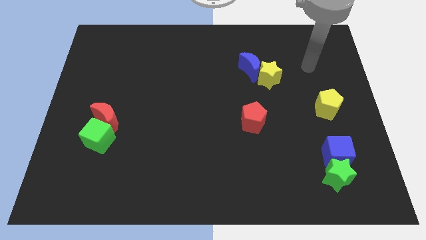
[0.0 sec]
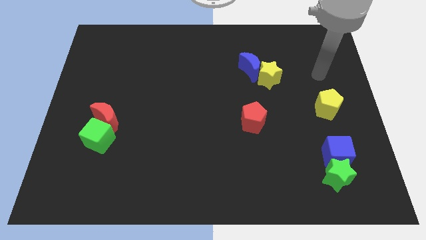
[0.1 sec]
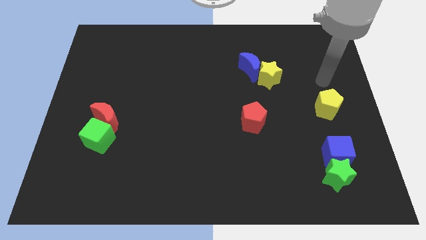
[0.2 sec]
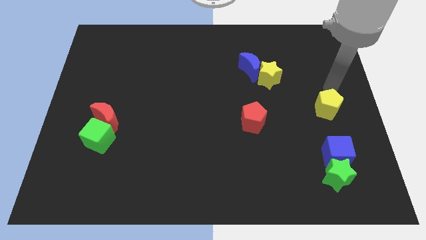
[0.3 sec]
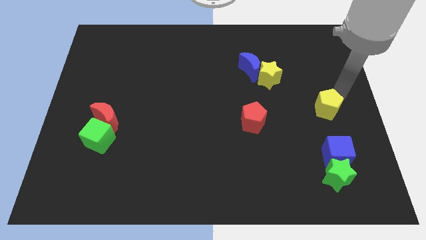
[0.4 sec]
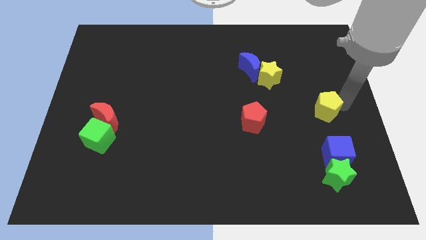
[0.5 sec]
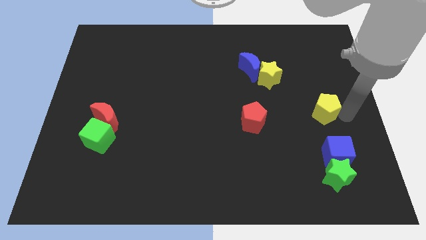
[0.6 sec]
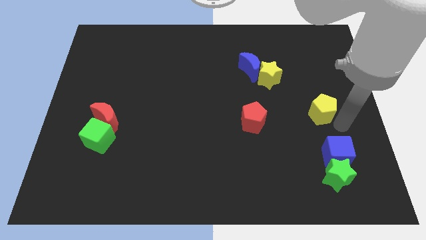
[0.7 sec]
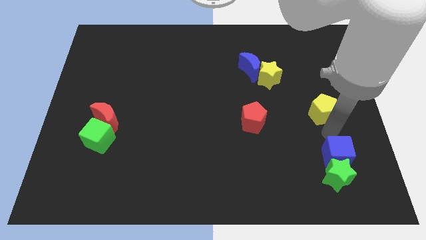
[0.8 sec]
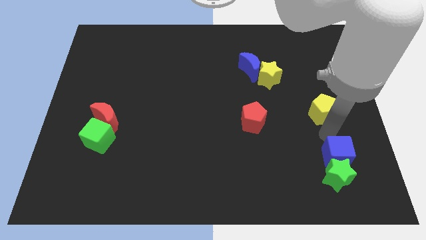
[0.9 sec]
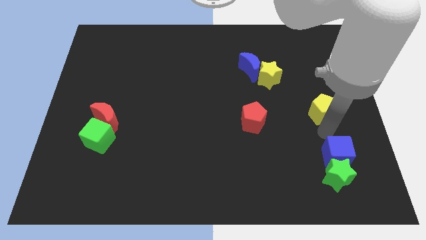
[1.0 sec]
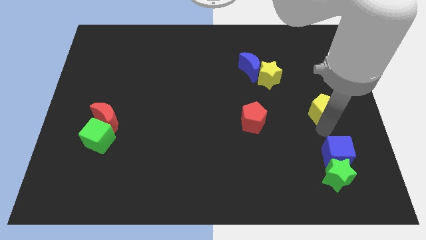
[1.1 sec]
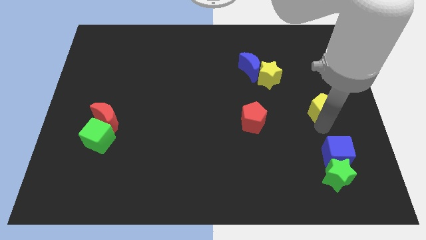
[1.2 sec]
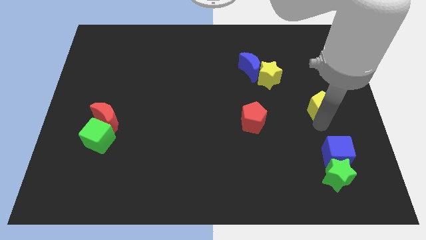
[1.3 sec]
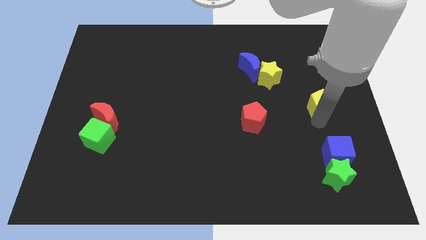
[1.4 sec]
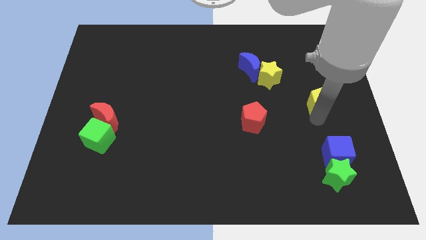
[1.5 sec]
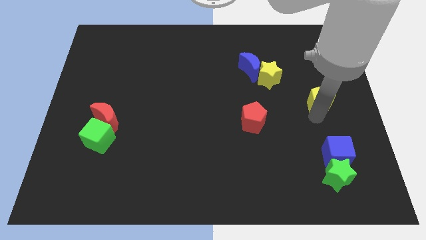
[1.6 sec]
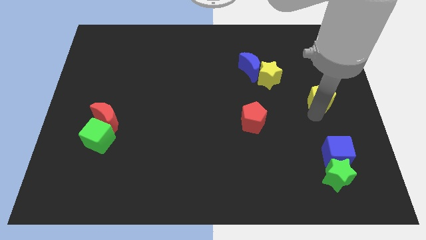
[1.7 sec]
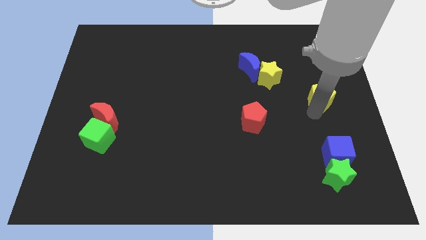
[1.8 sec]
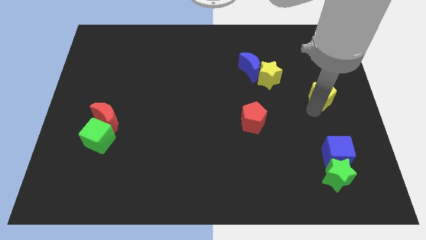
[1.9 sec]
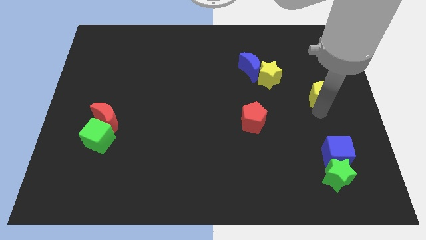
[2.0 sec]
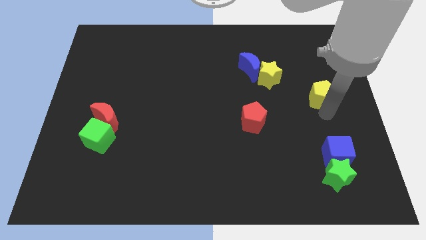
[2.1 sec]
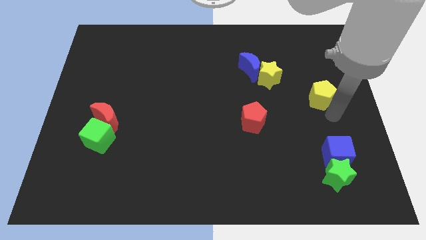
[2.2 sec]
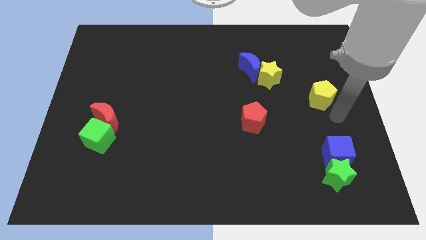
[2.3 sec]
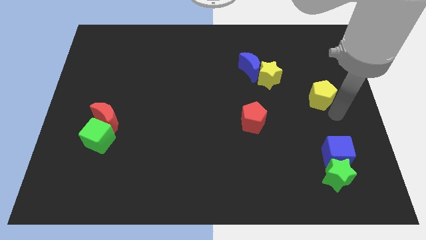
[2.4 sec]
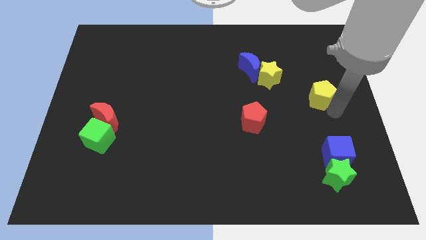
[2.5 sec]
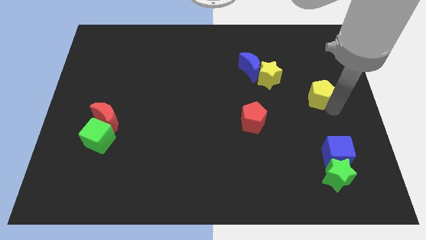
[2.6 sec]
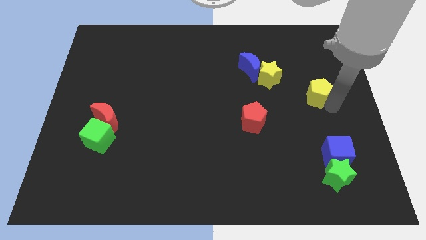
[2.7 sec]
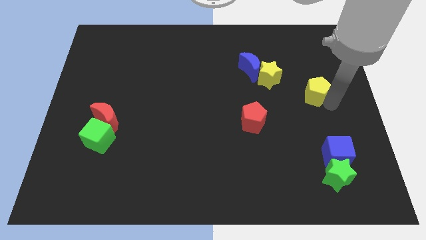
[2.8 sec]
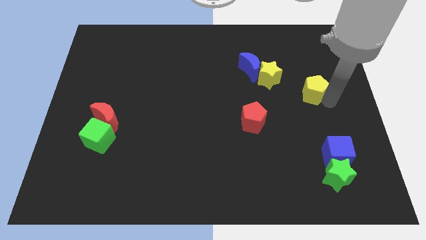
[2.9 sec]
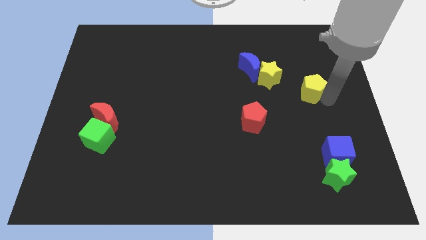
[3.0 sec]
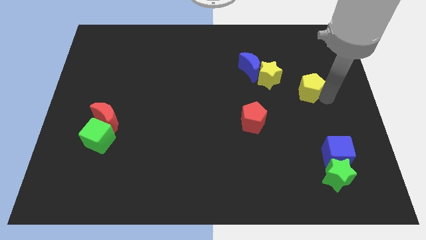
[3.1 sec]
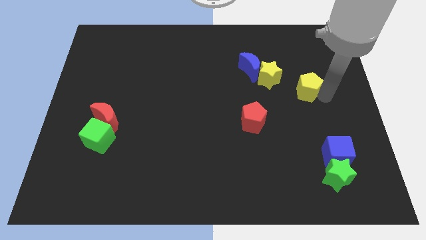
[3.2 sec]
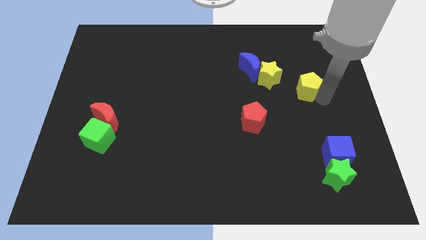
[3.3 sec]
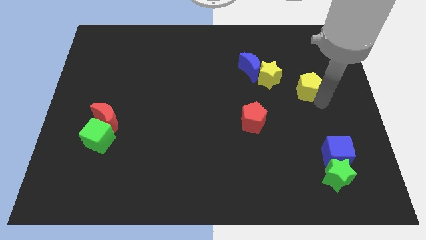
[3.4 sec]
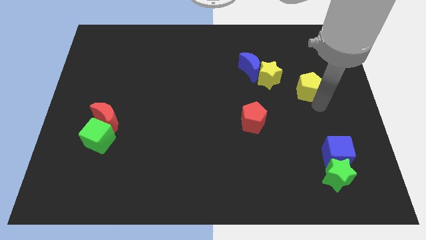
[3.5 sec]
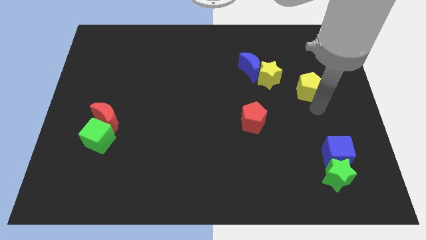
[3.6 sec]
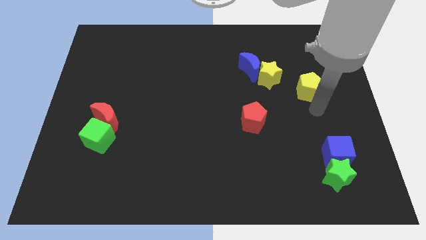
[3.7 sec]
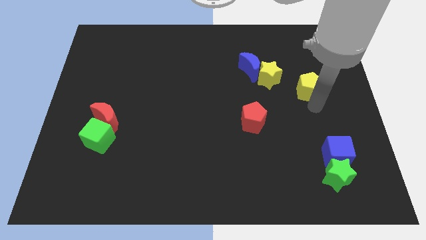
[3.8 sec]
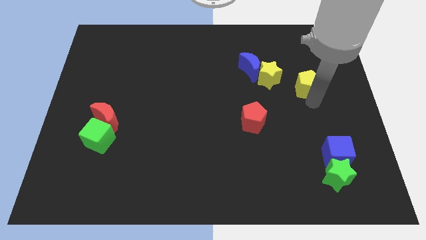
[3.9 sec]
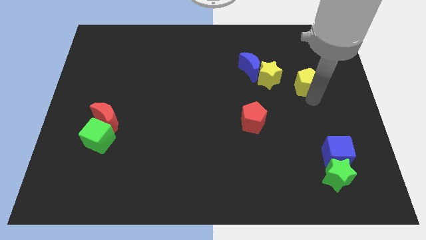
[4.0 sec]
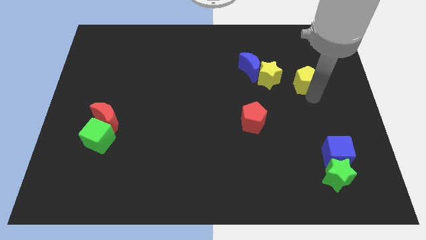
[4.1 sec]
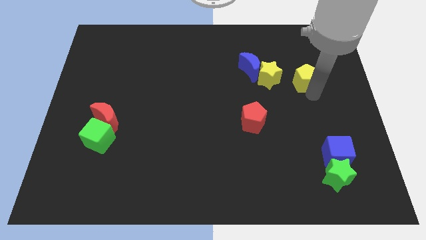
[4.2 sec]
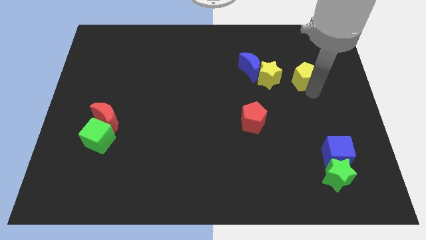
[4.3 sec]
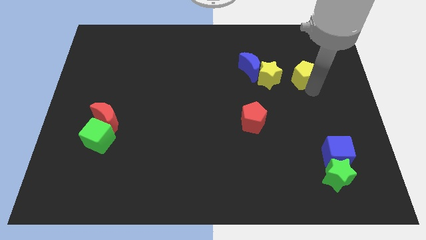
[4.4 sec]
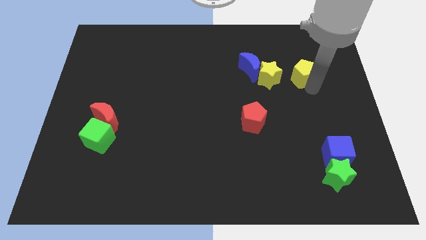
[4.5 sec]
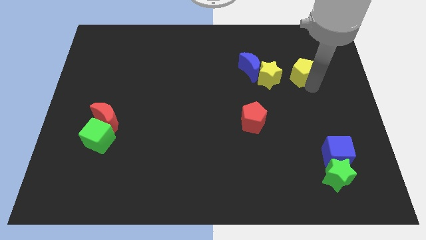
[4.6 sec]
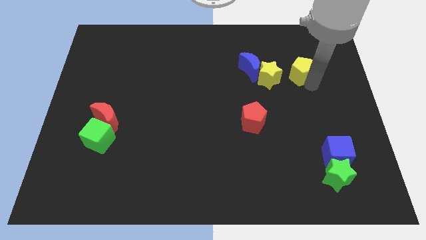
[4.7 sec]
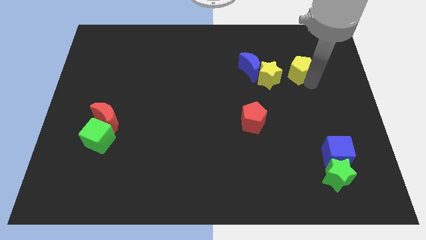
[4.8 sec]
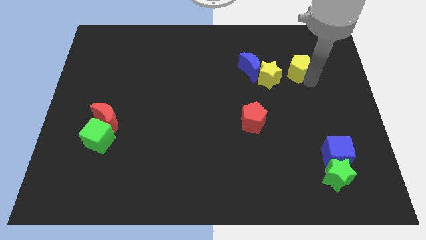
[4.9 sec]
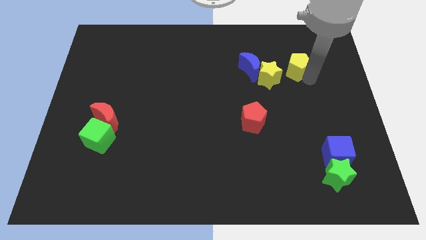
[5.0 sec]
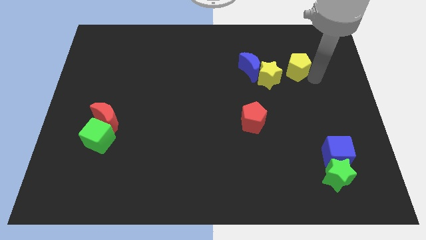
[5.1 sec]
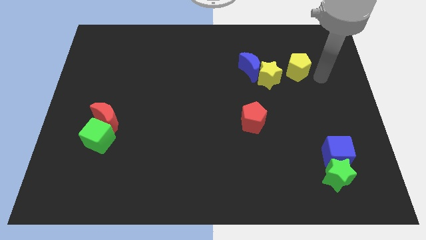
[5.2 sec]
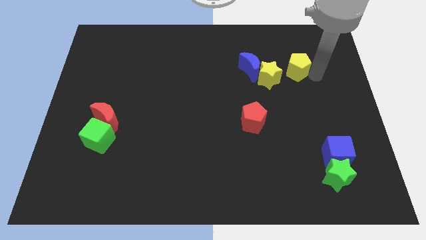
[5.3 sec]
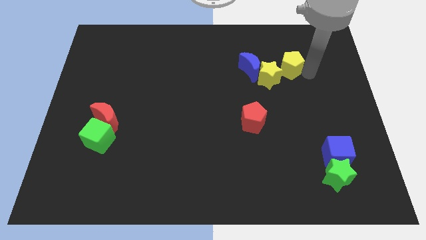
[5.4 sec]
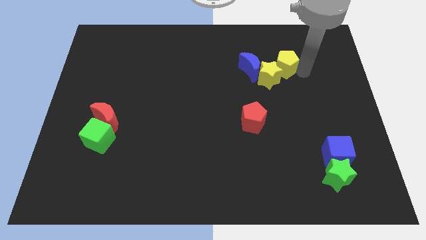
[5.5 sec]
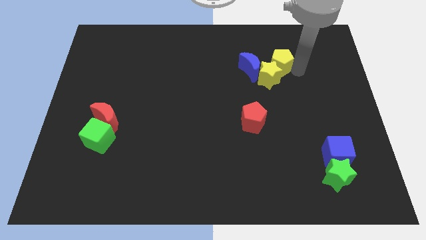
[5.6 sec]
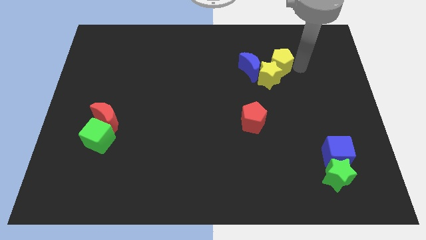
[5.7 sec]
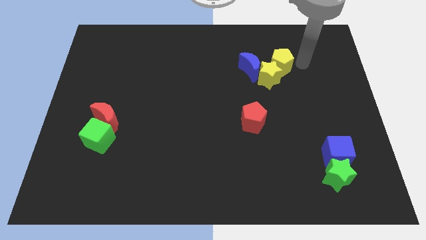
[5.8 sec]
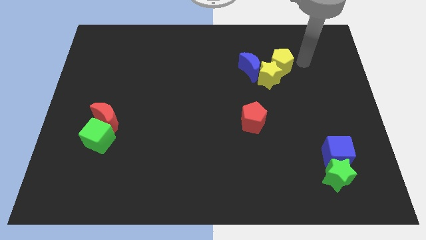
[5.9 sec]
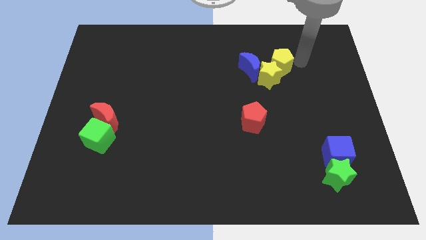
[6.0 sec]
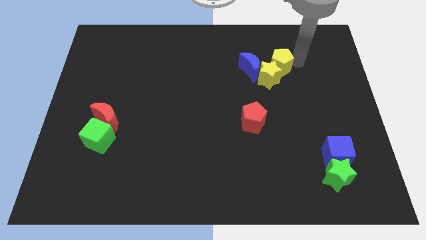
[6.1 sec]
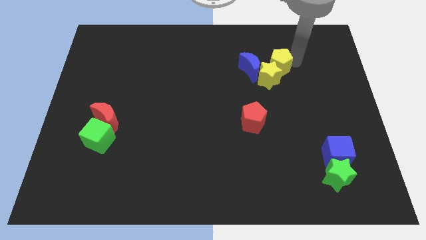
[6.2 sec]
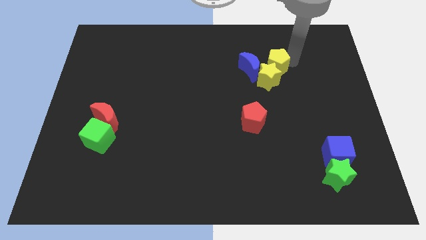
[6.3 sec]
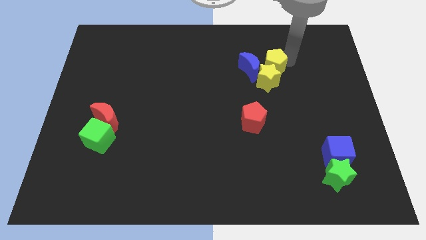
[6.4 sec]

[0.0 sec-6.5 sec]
slide the yellow pentagon towards the blue moon
